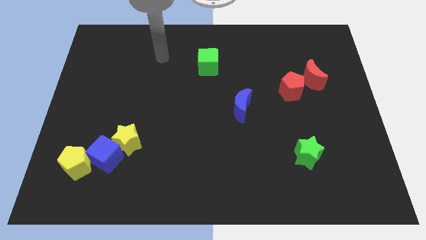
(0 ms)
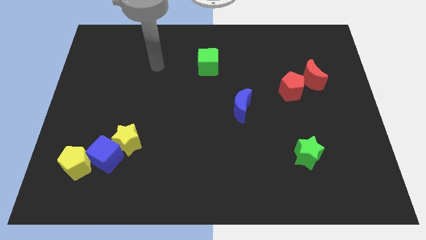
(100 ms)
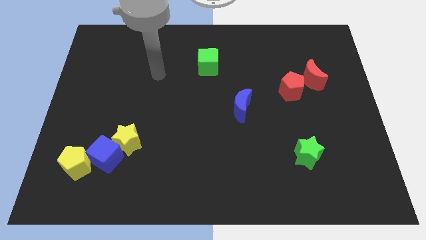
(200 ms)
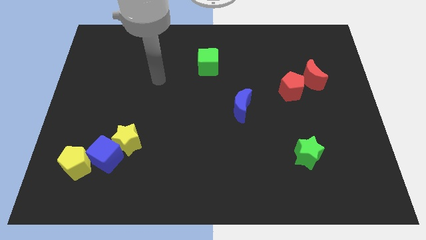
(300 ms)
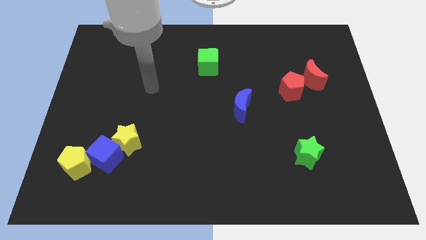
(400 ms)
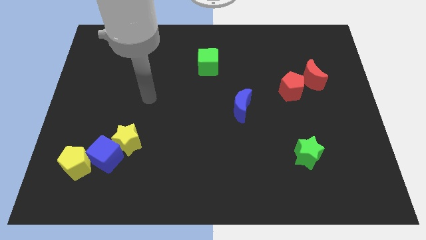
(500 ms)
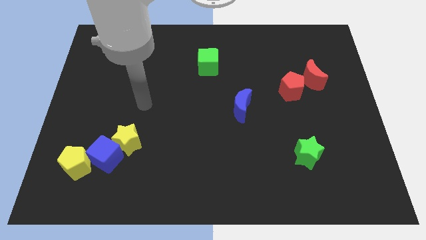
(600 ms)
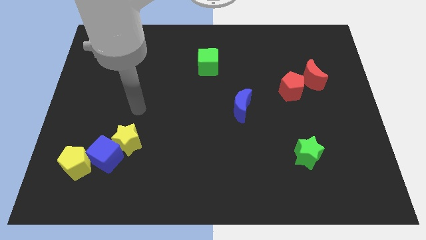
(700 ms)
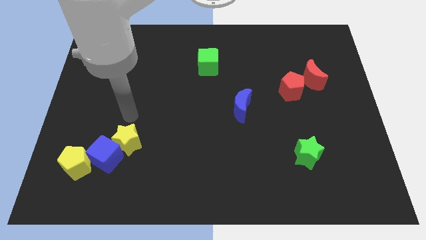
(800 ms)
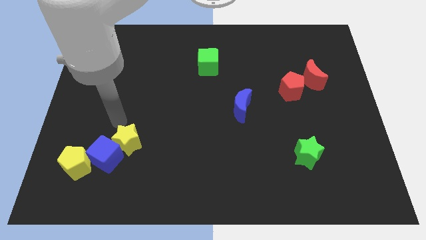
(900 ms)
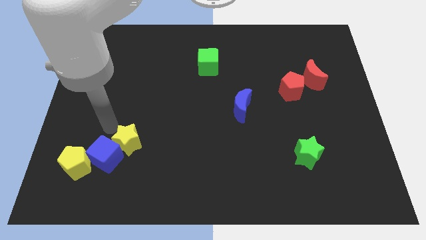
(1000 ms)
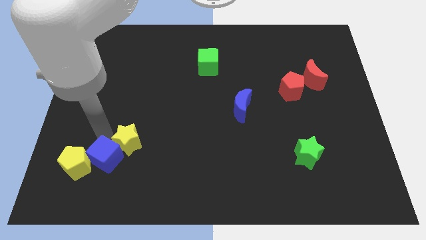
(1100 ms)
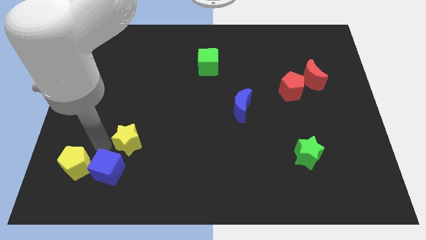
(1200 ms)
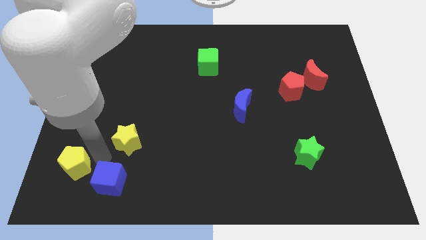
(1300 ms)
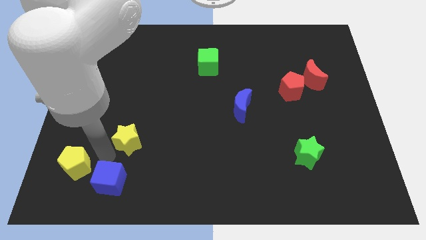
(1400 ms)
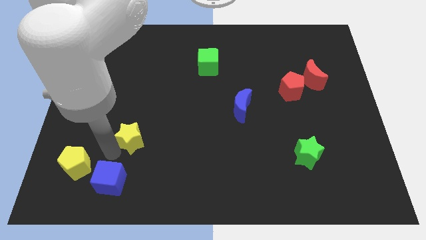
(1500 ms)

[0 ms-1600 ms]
move the yellow star away from the blue cube

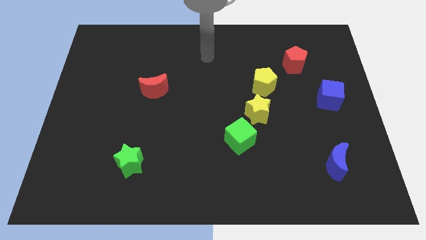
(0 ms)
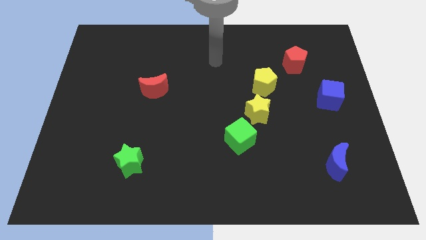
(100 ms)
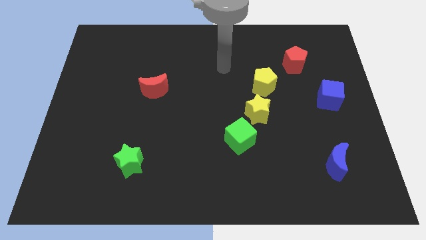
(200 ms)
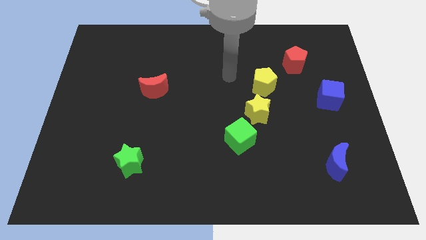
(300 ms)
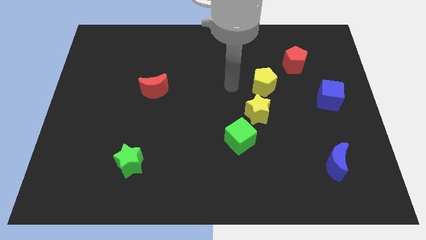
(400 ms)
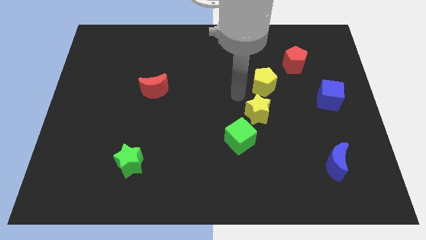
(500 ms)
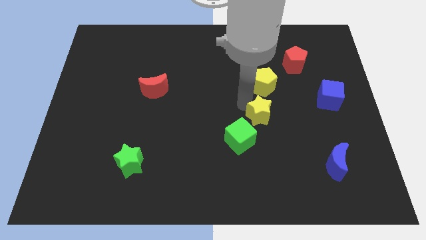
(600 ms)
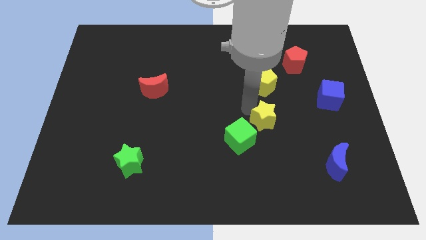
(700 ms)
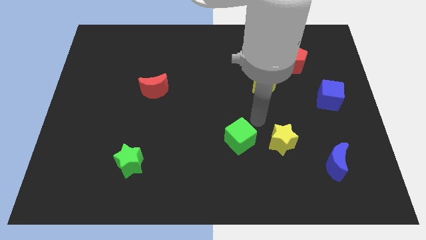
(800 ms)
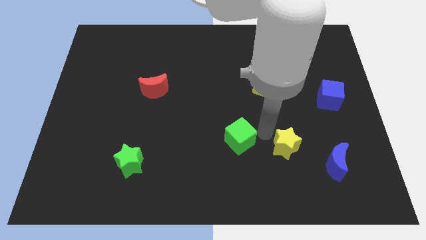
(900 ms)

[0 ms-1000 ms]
move the green cube away from the yellow star

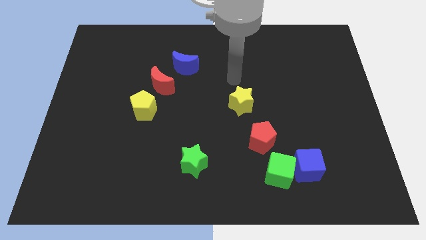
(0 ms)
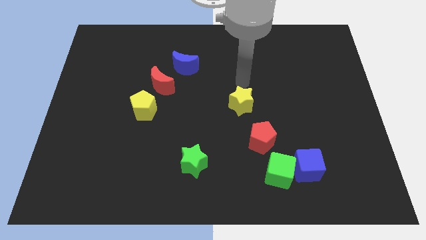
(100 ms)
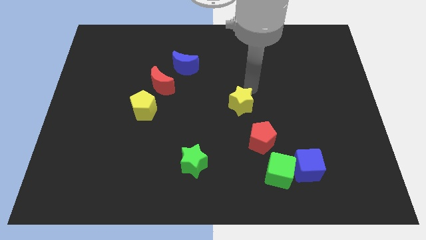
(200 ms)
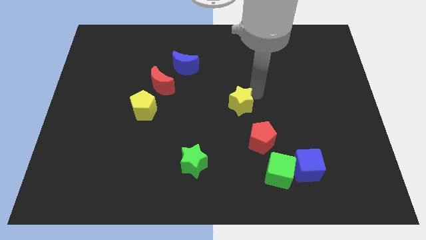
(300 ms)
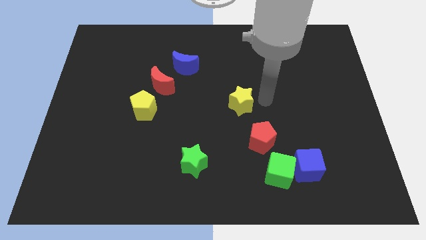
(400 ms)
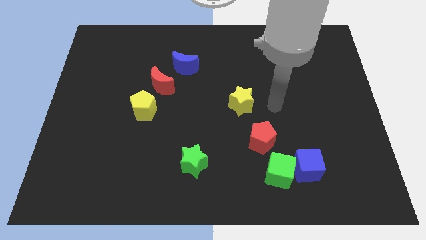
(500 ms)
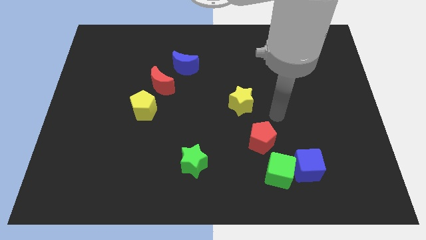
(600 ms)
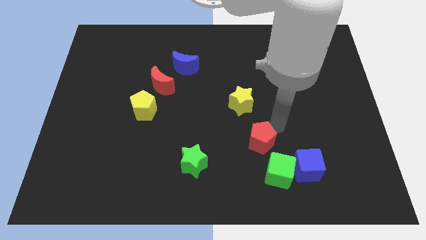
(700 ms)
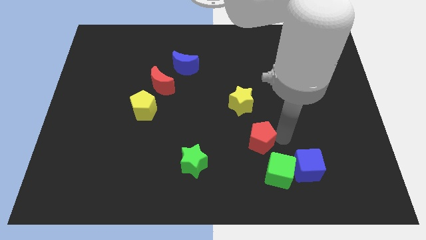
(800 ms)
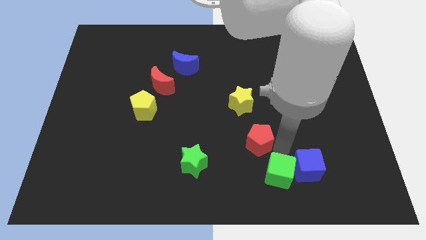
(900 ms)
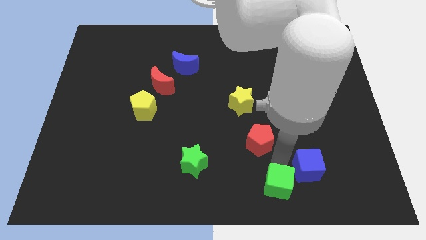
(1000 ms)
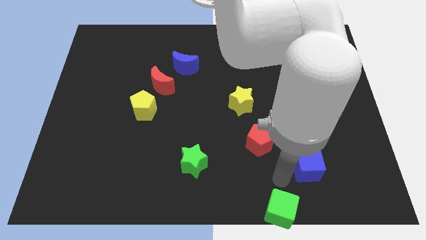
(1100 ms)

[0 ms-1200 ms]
pull the blue cube apart from the green cube

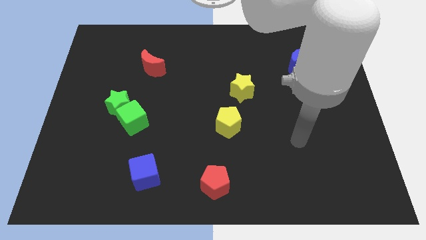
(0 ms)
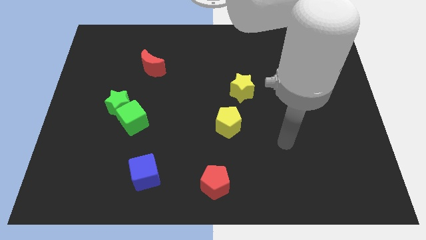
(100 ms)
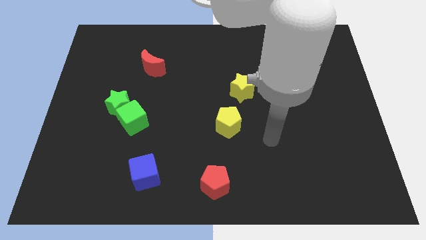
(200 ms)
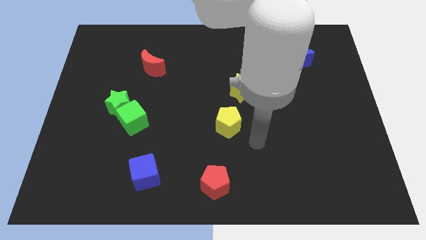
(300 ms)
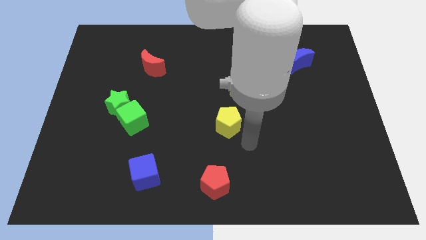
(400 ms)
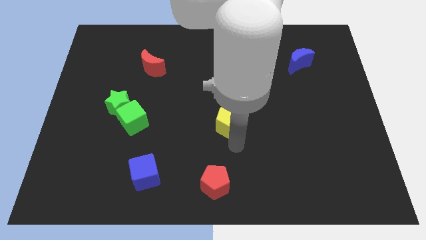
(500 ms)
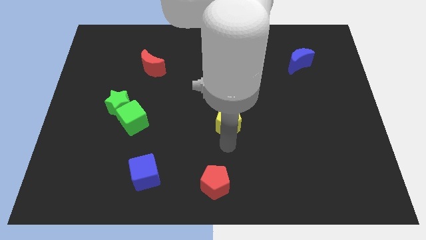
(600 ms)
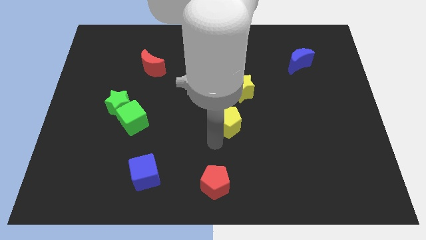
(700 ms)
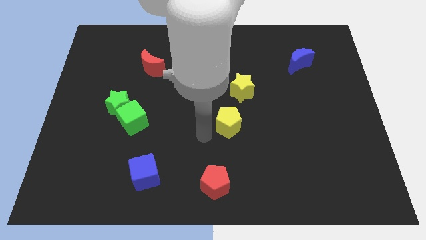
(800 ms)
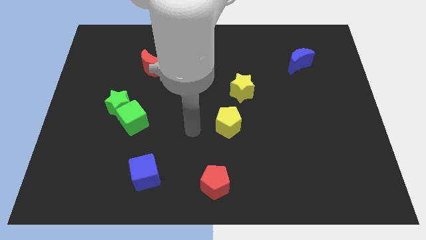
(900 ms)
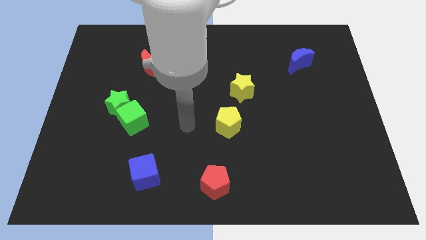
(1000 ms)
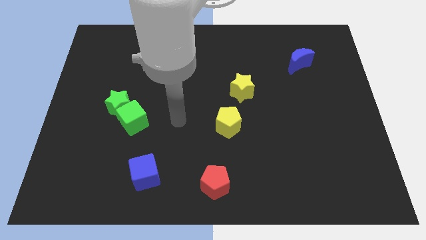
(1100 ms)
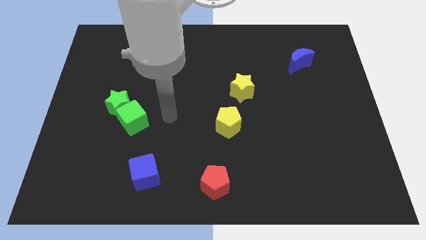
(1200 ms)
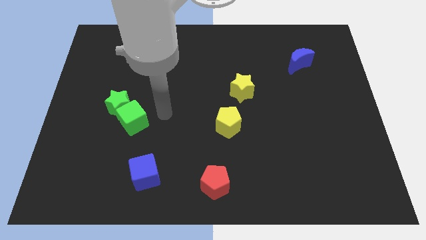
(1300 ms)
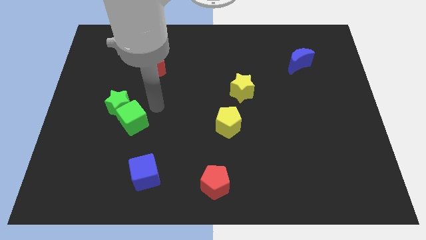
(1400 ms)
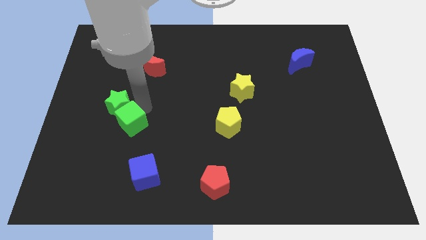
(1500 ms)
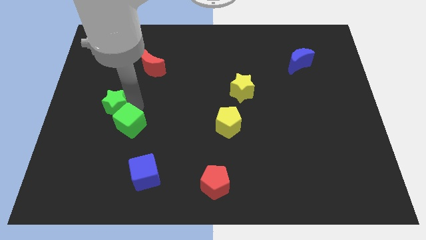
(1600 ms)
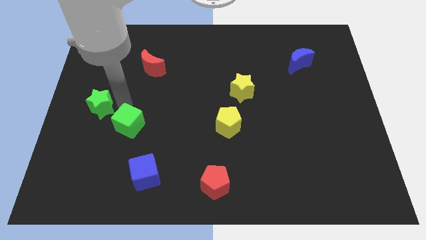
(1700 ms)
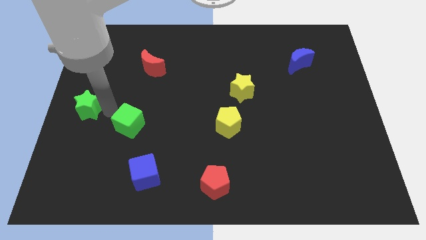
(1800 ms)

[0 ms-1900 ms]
separate the green cube from the green star

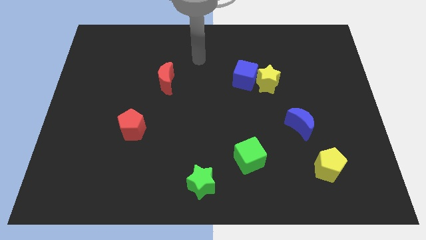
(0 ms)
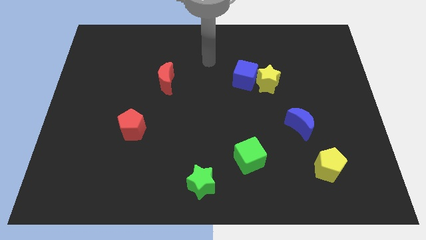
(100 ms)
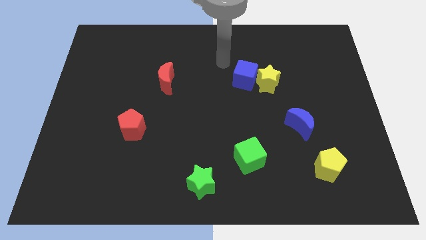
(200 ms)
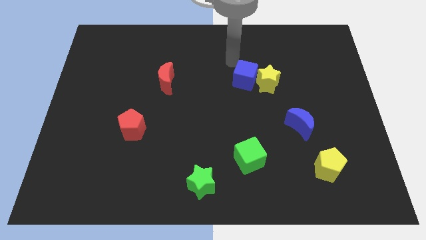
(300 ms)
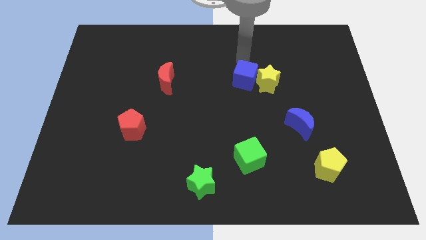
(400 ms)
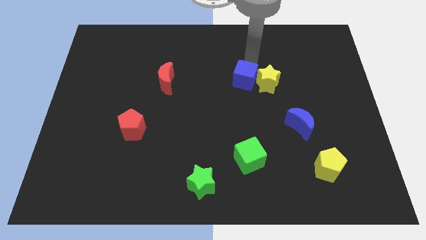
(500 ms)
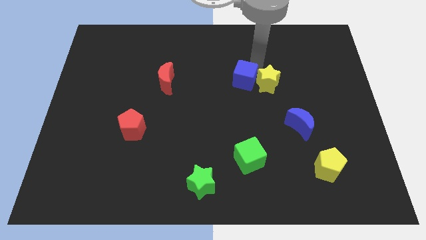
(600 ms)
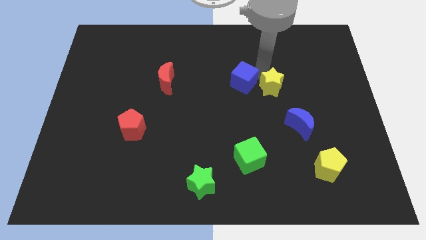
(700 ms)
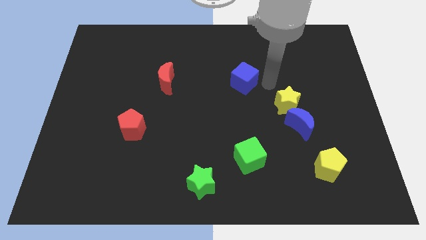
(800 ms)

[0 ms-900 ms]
separate the blue cube from the yellow star

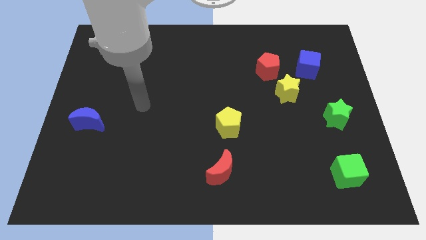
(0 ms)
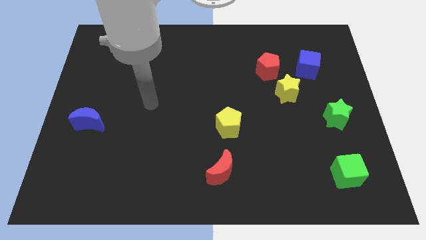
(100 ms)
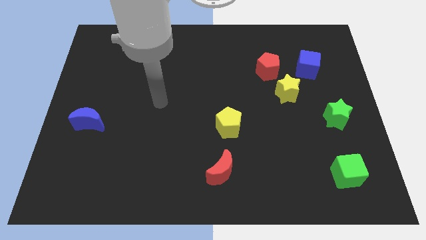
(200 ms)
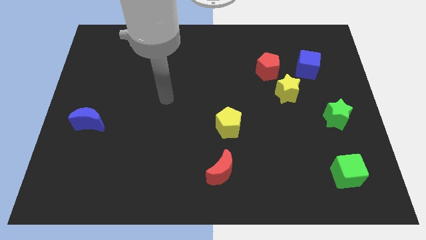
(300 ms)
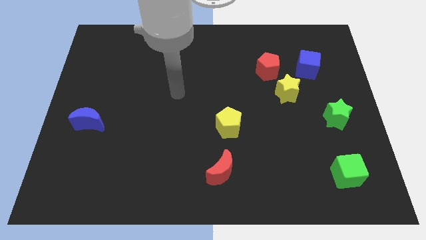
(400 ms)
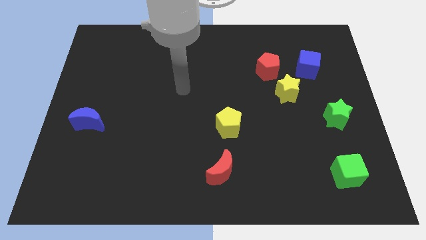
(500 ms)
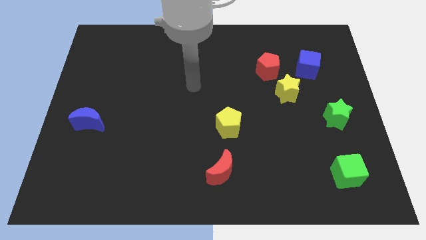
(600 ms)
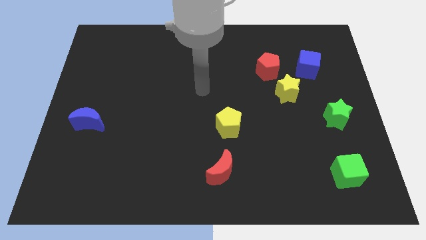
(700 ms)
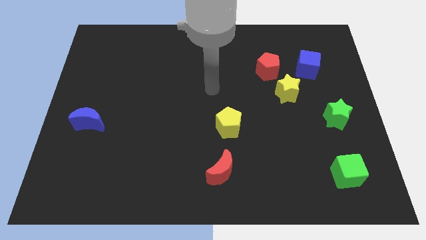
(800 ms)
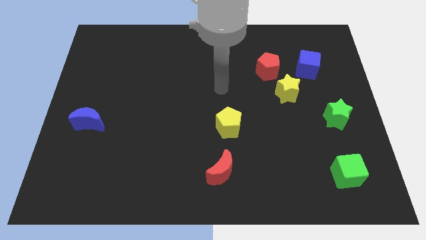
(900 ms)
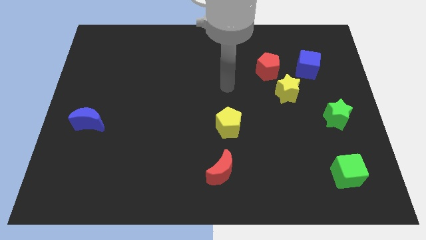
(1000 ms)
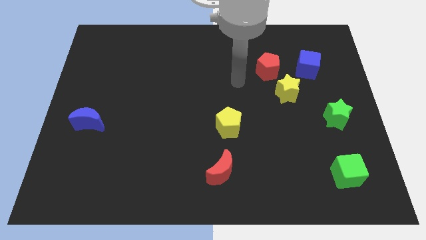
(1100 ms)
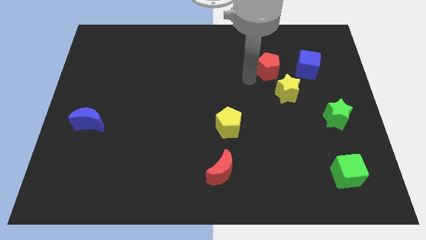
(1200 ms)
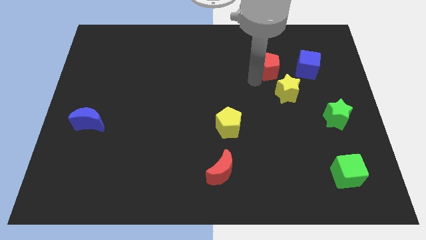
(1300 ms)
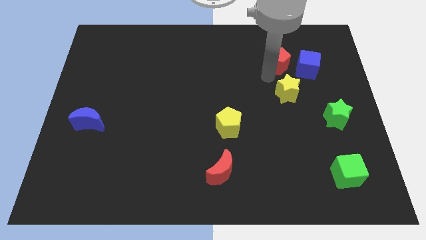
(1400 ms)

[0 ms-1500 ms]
separate the yellow star from the red pentagon

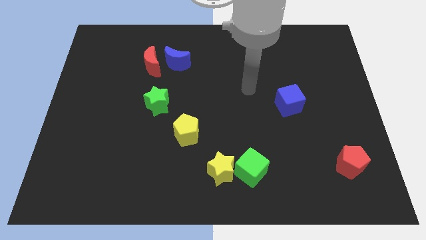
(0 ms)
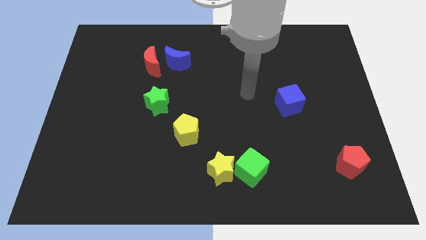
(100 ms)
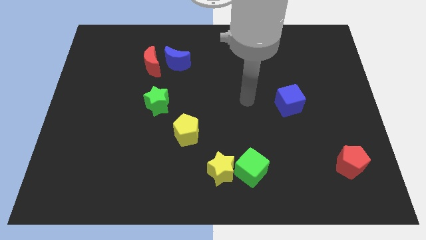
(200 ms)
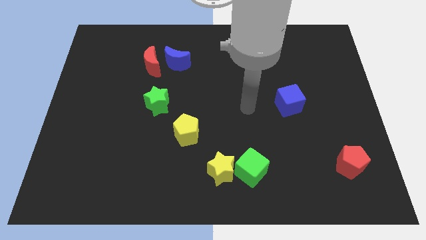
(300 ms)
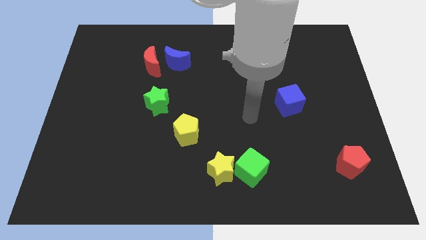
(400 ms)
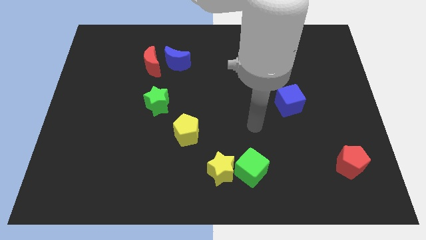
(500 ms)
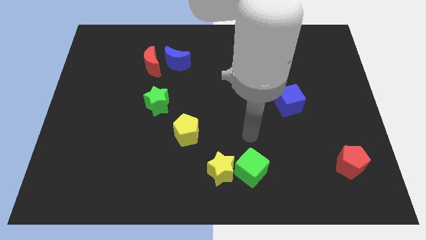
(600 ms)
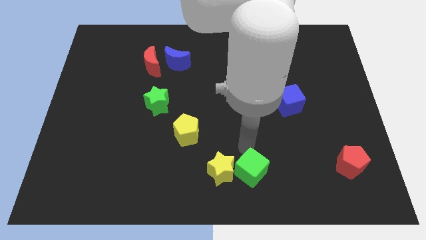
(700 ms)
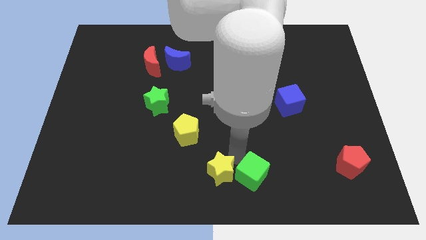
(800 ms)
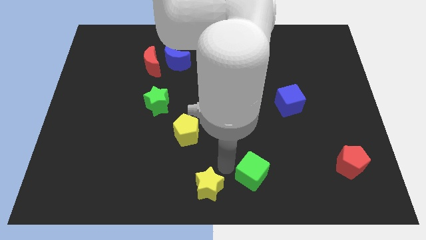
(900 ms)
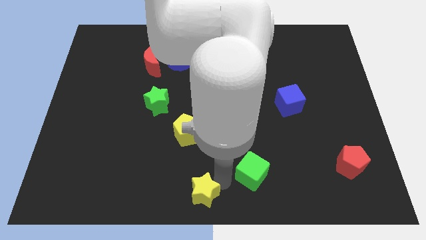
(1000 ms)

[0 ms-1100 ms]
separate the green cube from the yellow star

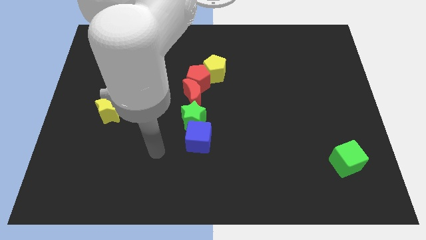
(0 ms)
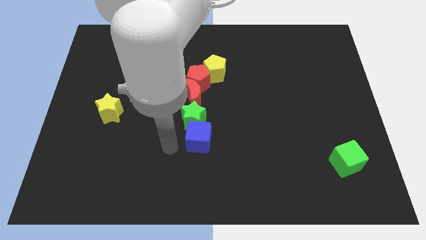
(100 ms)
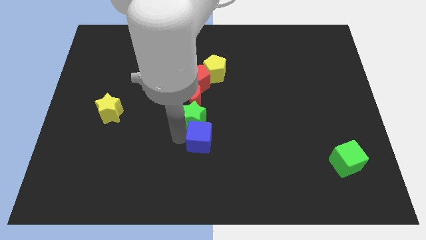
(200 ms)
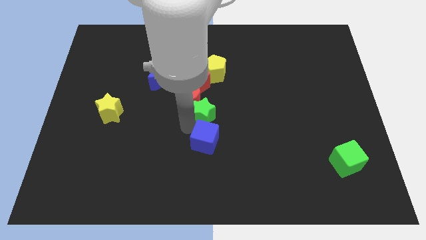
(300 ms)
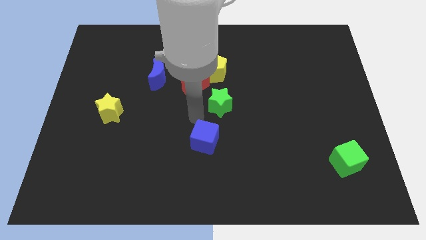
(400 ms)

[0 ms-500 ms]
move the blue cube away from the green star
